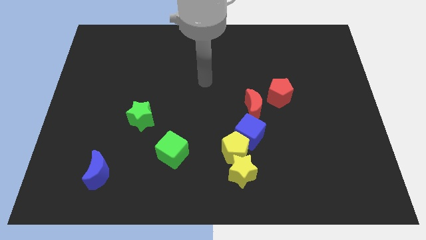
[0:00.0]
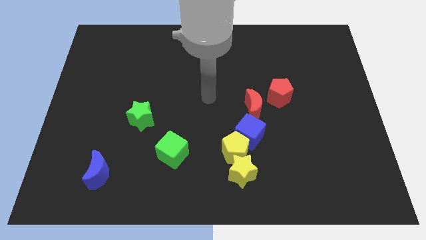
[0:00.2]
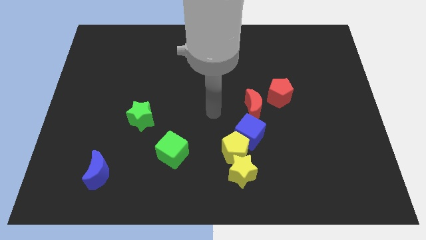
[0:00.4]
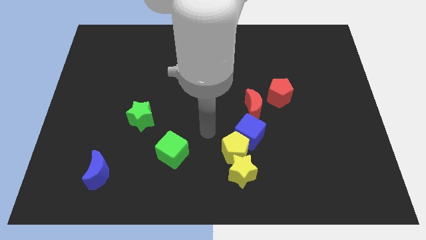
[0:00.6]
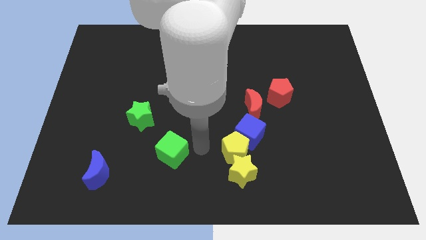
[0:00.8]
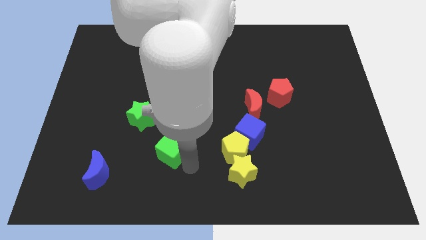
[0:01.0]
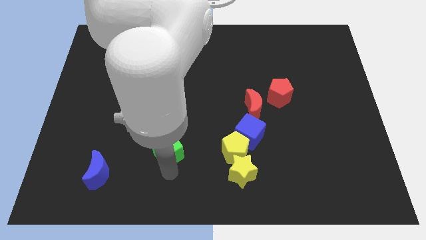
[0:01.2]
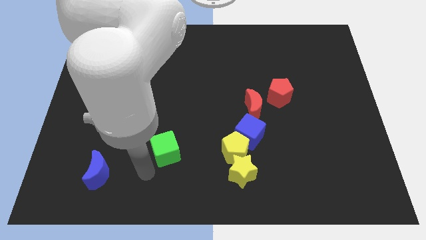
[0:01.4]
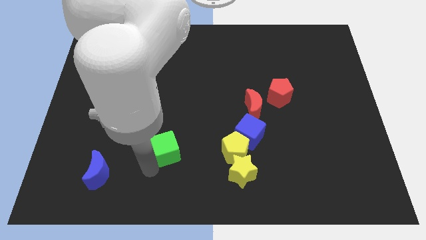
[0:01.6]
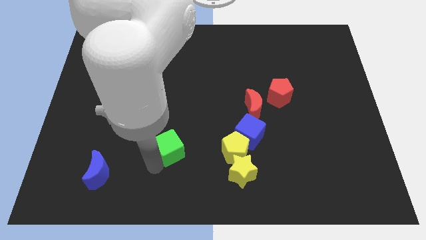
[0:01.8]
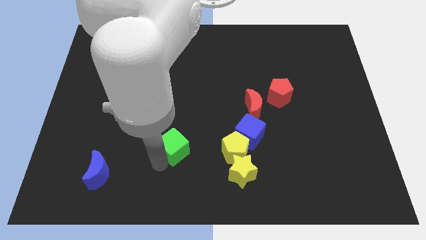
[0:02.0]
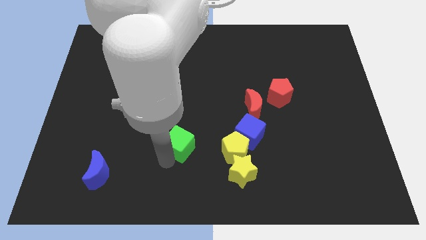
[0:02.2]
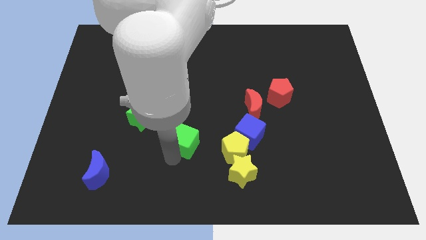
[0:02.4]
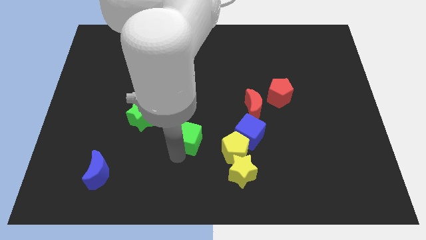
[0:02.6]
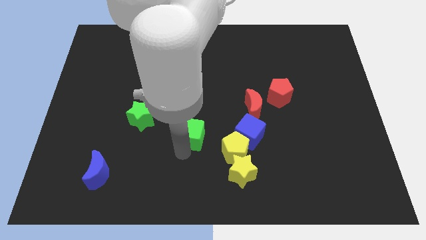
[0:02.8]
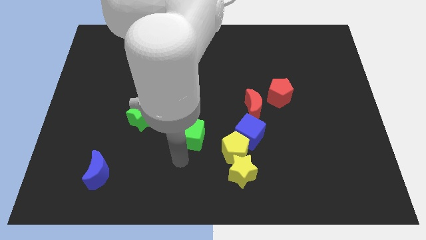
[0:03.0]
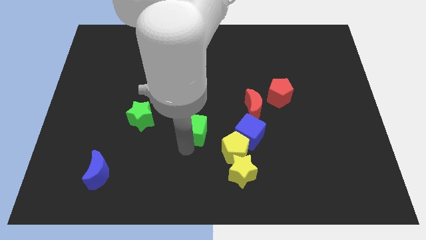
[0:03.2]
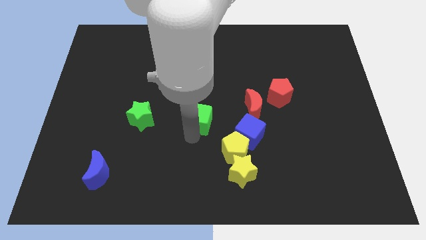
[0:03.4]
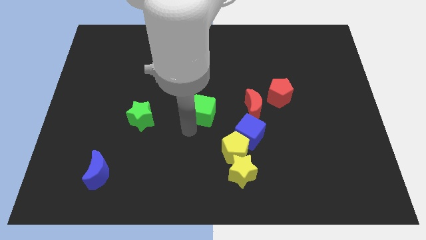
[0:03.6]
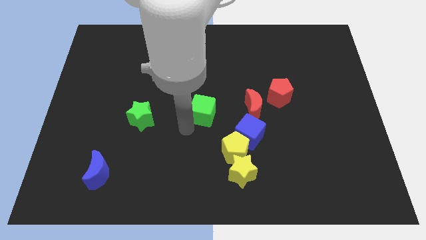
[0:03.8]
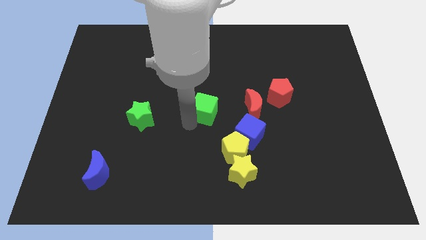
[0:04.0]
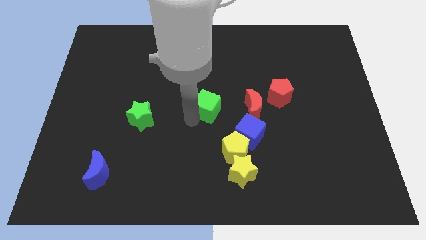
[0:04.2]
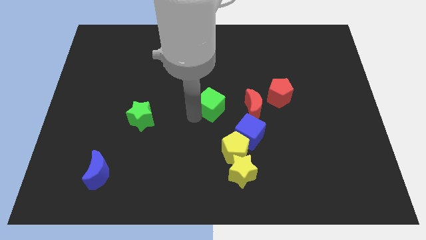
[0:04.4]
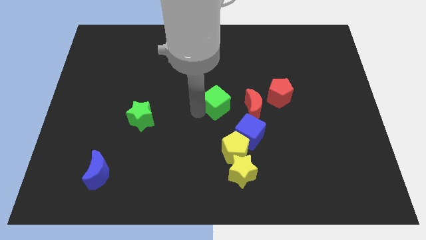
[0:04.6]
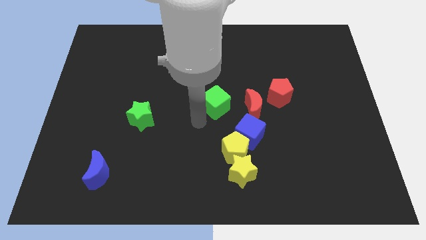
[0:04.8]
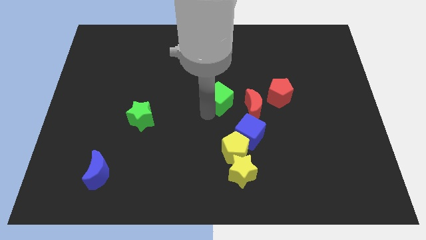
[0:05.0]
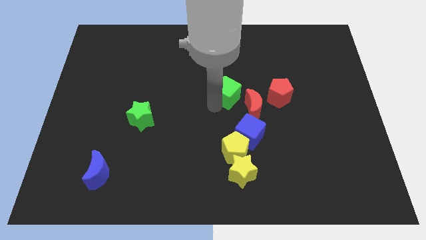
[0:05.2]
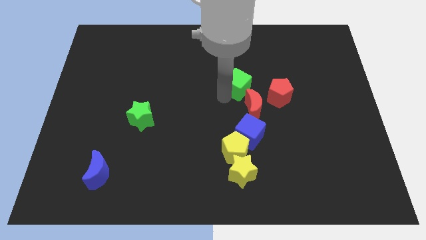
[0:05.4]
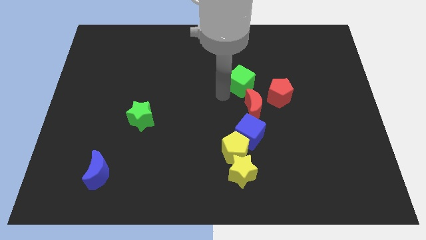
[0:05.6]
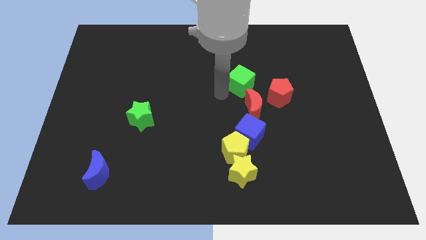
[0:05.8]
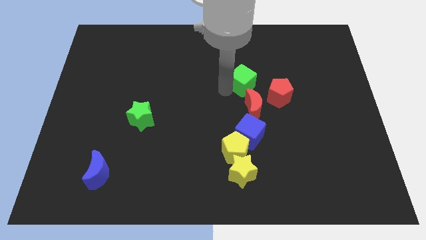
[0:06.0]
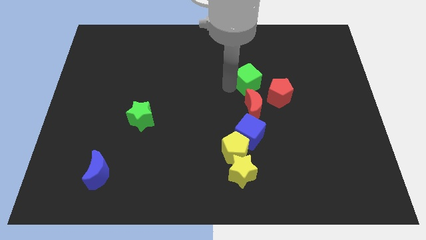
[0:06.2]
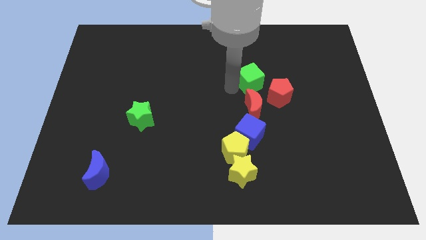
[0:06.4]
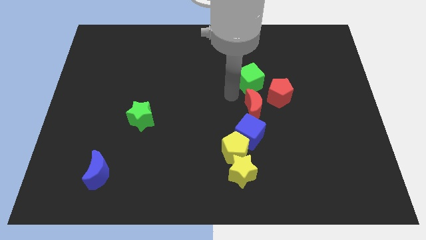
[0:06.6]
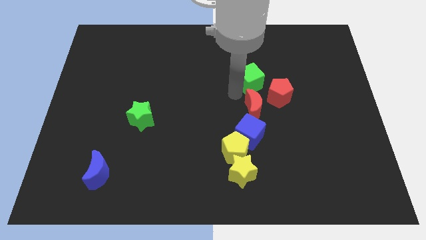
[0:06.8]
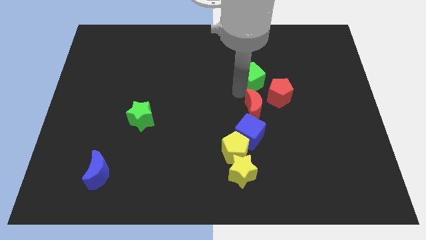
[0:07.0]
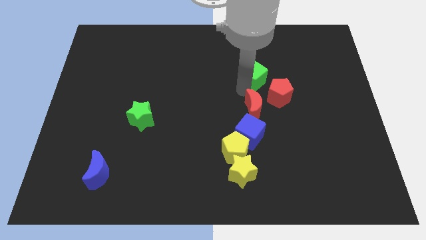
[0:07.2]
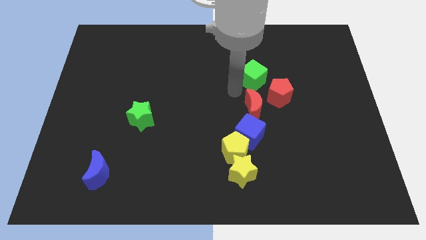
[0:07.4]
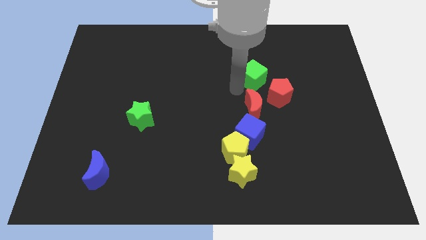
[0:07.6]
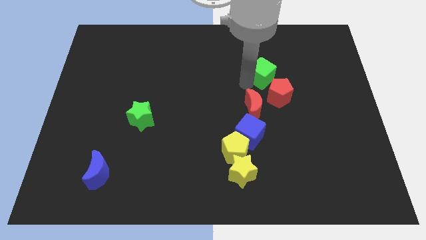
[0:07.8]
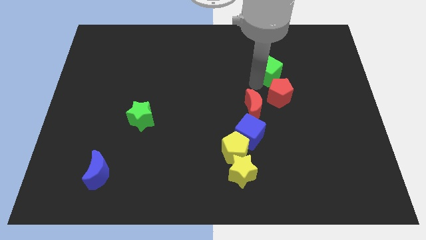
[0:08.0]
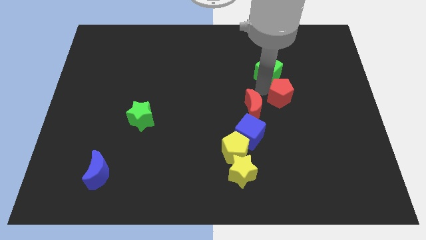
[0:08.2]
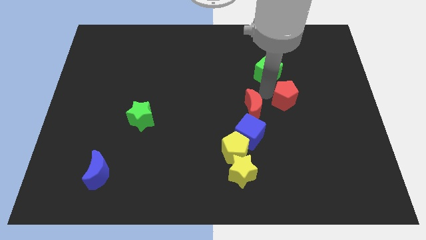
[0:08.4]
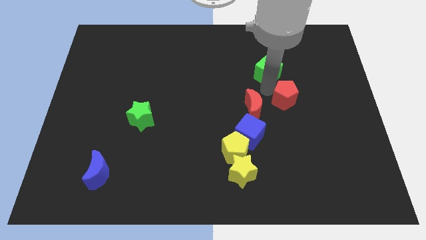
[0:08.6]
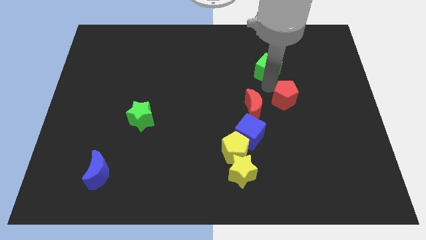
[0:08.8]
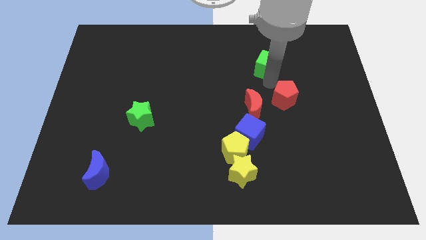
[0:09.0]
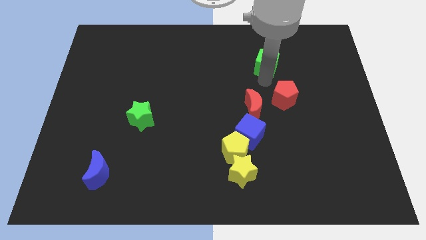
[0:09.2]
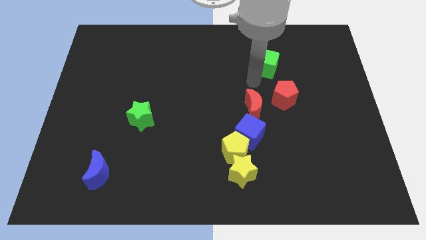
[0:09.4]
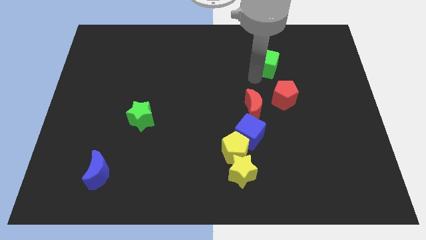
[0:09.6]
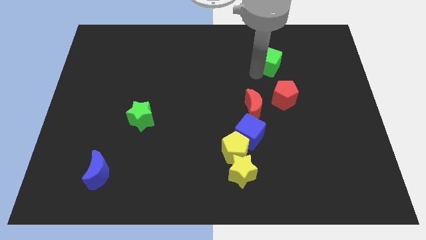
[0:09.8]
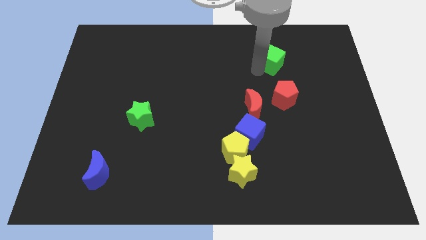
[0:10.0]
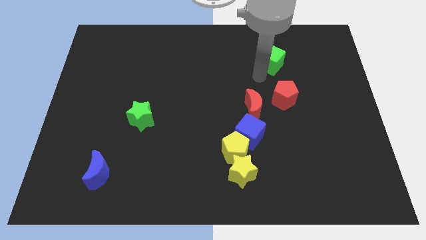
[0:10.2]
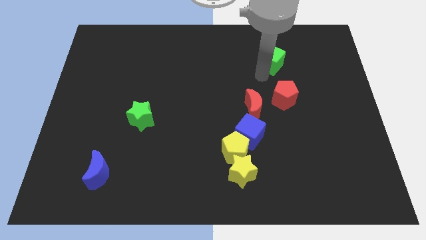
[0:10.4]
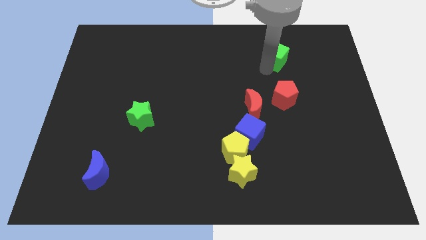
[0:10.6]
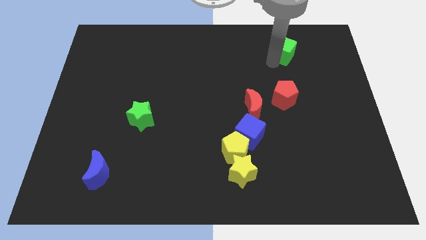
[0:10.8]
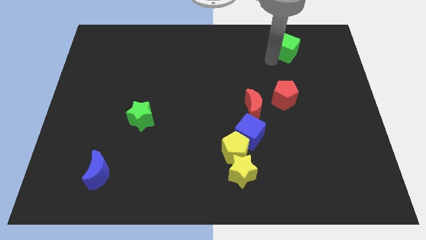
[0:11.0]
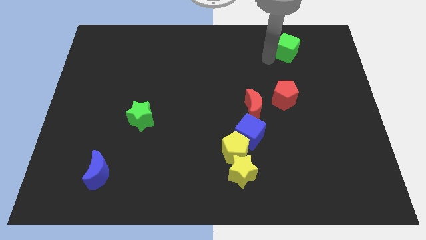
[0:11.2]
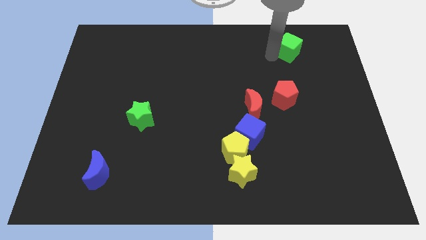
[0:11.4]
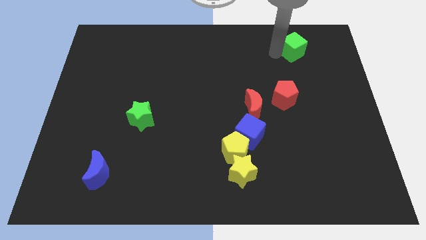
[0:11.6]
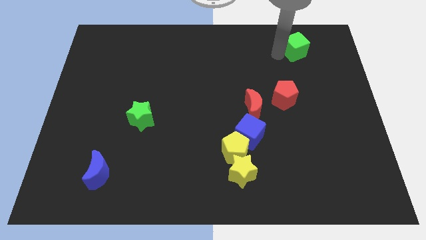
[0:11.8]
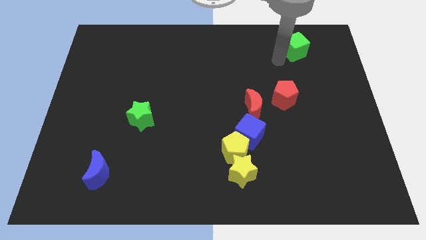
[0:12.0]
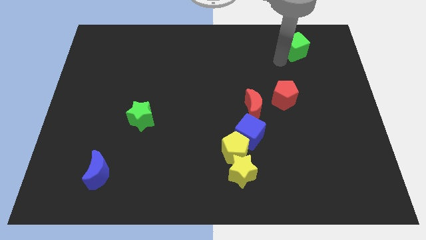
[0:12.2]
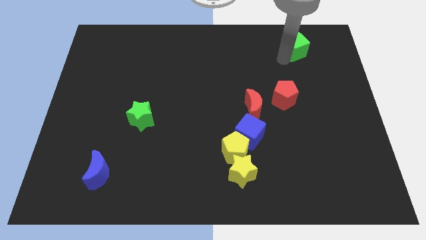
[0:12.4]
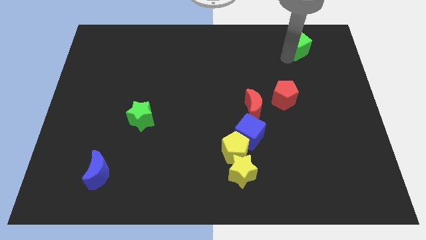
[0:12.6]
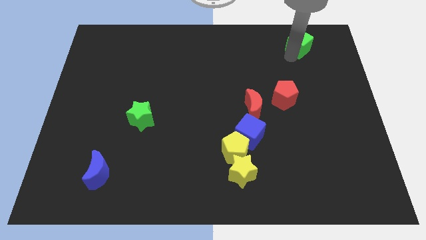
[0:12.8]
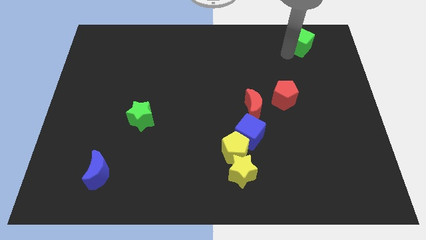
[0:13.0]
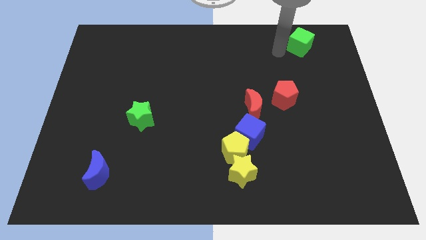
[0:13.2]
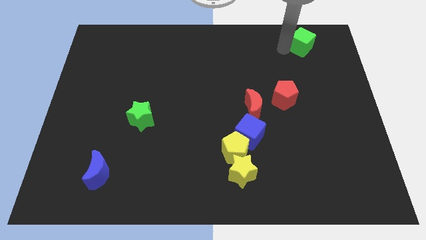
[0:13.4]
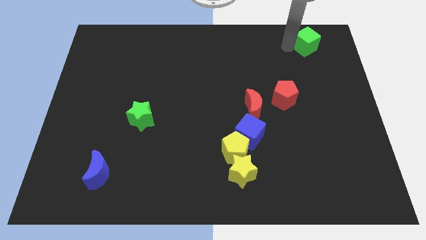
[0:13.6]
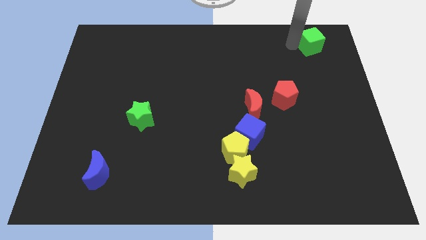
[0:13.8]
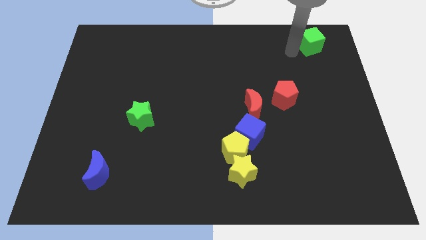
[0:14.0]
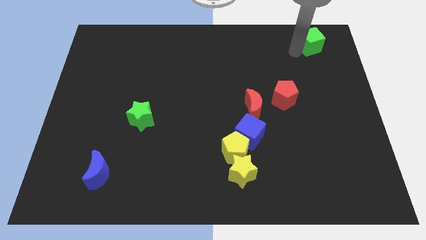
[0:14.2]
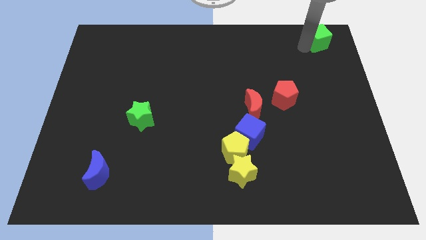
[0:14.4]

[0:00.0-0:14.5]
push the green cube to the upper right corner
